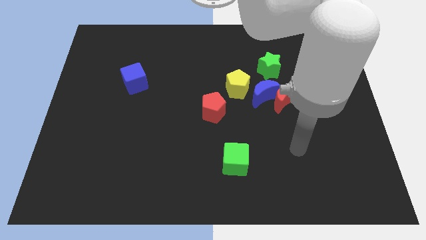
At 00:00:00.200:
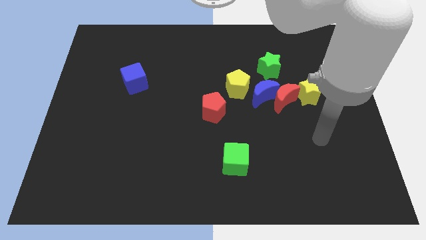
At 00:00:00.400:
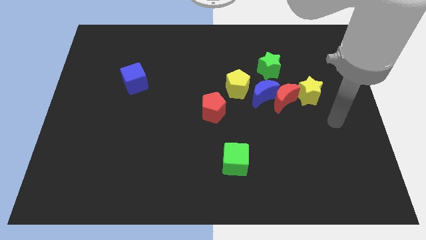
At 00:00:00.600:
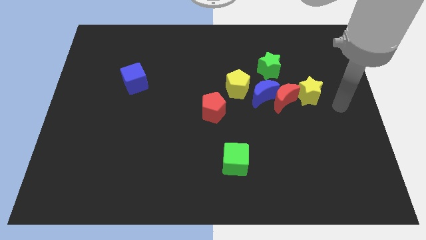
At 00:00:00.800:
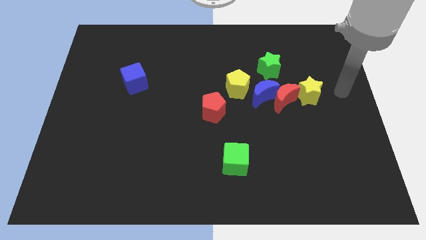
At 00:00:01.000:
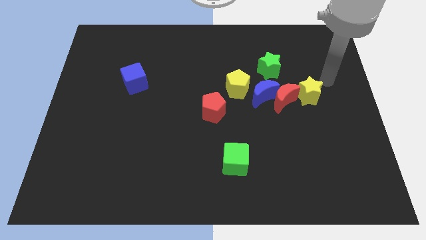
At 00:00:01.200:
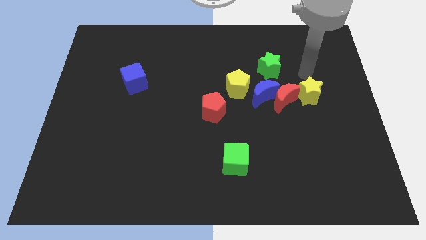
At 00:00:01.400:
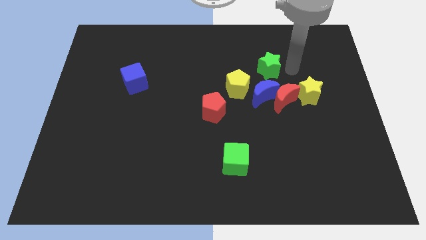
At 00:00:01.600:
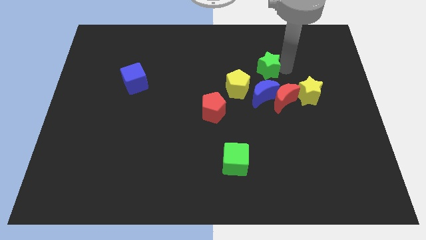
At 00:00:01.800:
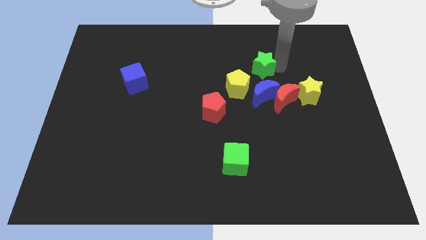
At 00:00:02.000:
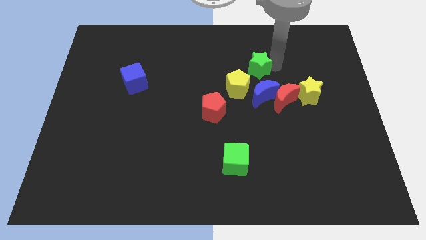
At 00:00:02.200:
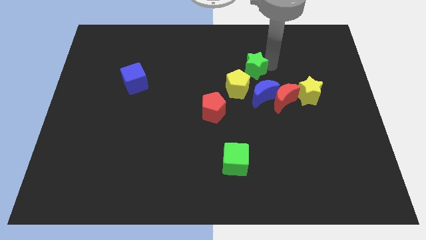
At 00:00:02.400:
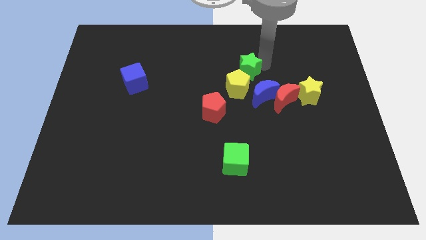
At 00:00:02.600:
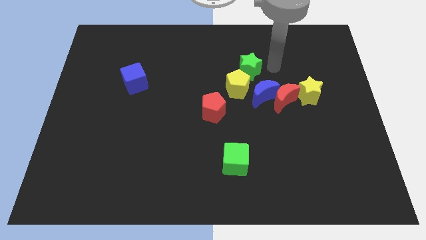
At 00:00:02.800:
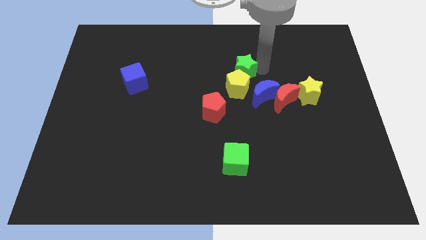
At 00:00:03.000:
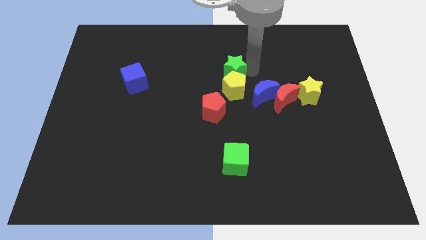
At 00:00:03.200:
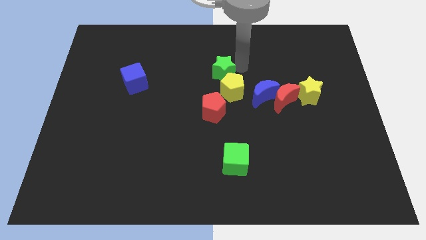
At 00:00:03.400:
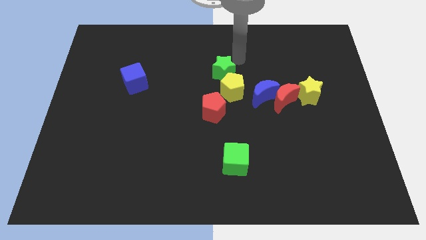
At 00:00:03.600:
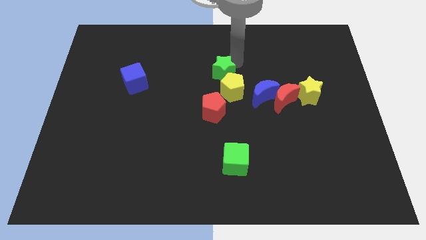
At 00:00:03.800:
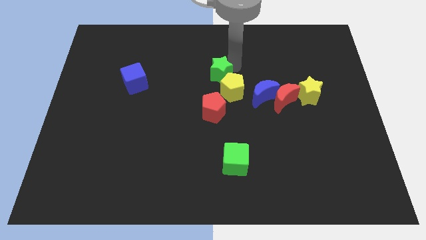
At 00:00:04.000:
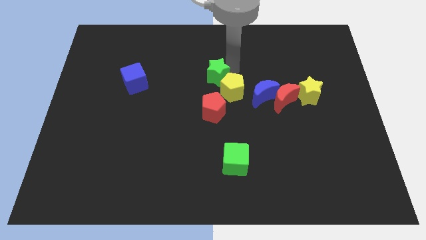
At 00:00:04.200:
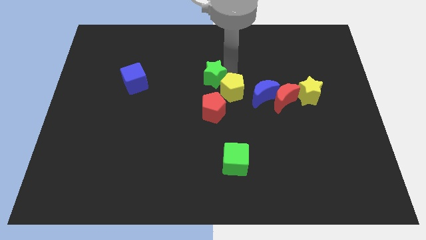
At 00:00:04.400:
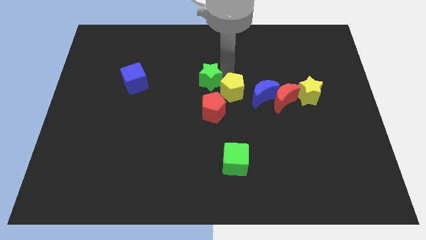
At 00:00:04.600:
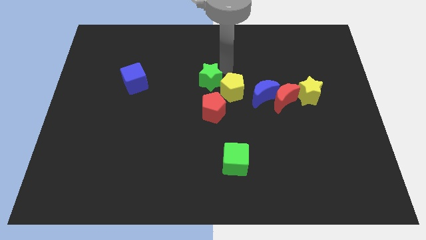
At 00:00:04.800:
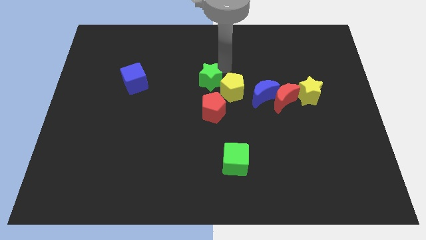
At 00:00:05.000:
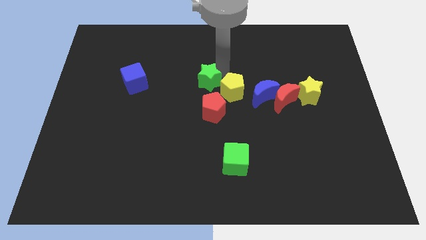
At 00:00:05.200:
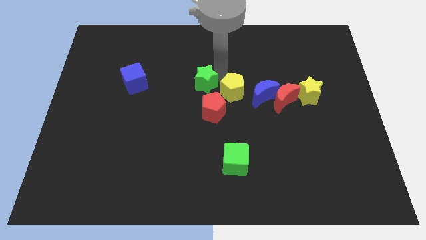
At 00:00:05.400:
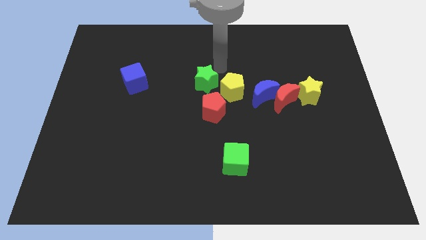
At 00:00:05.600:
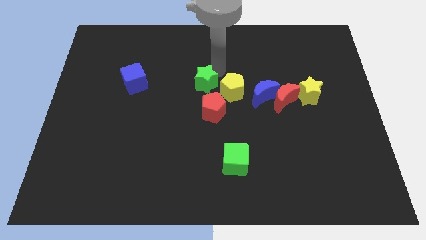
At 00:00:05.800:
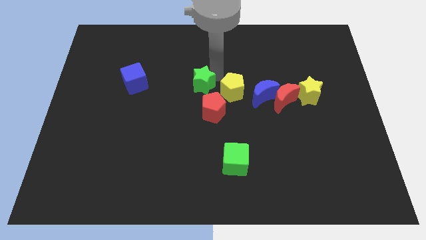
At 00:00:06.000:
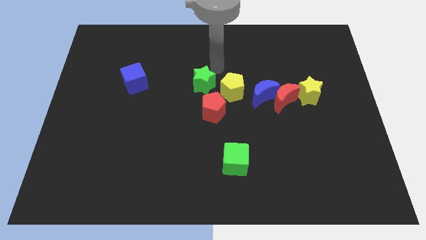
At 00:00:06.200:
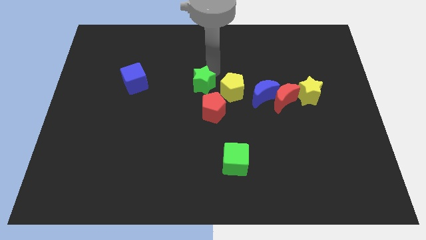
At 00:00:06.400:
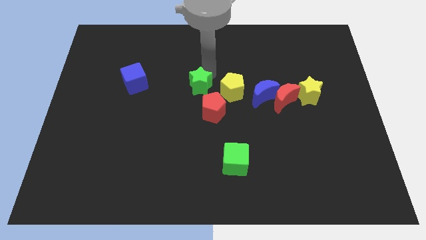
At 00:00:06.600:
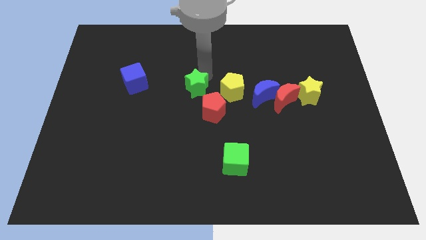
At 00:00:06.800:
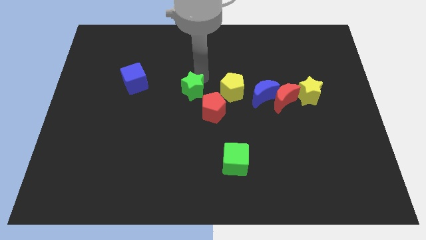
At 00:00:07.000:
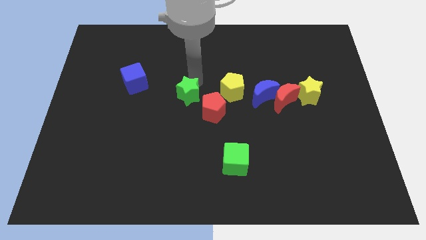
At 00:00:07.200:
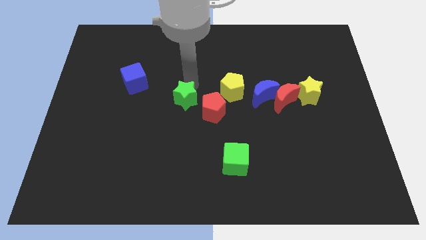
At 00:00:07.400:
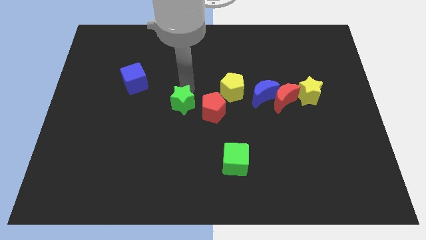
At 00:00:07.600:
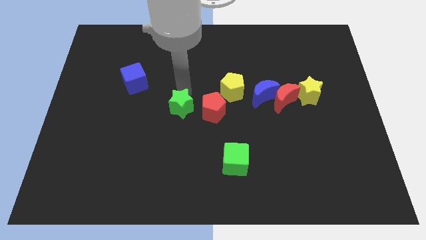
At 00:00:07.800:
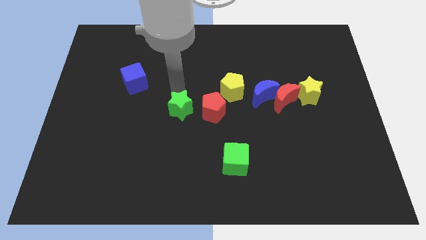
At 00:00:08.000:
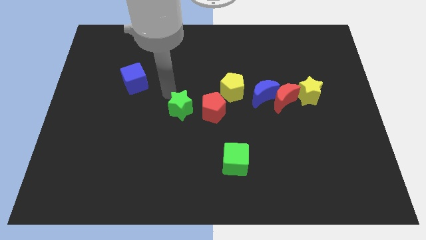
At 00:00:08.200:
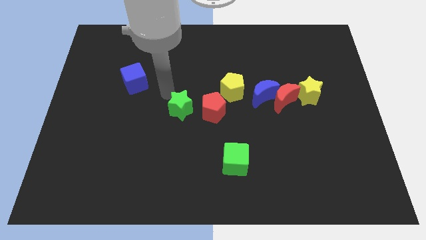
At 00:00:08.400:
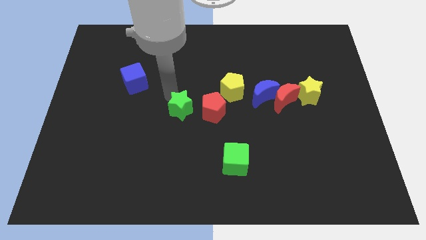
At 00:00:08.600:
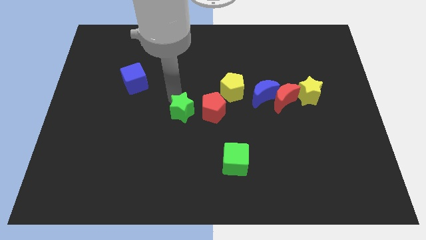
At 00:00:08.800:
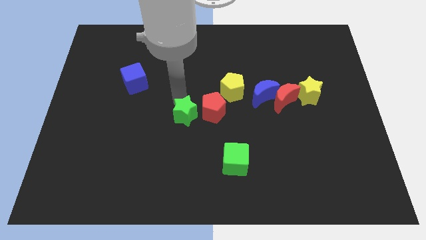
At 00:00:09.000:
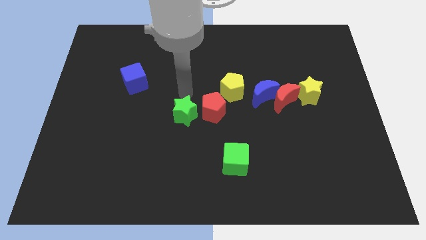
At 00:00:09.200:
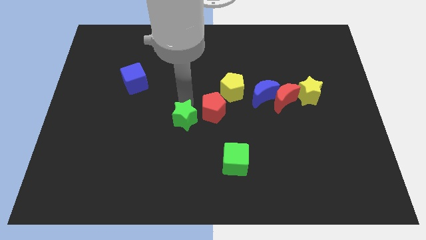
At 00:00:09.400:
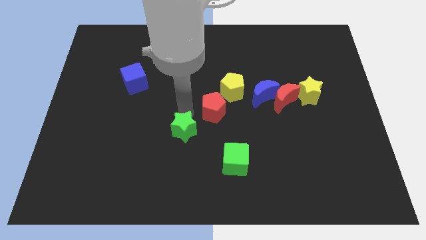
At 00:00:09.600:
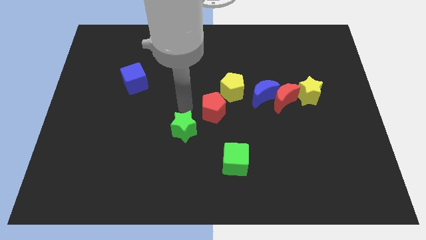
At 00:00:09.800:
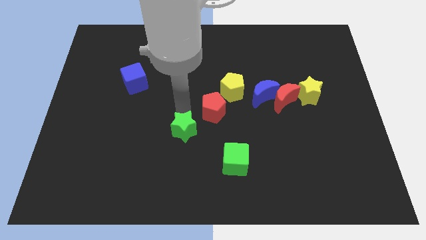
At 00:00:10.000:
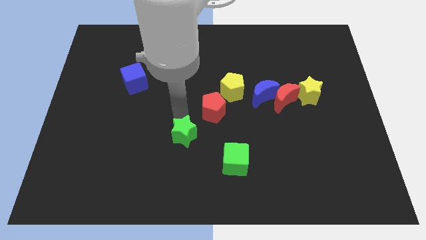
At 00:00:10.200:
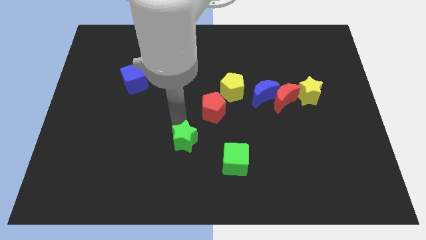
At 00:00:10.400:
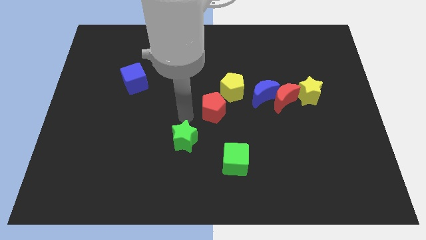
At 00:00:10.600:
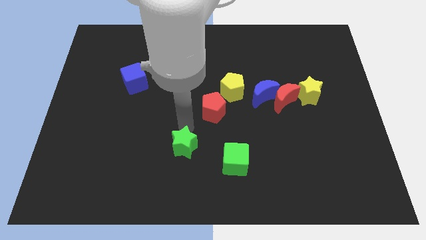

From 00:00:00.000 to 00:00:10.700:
put the green star left of the green cube
